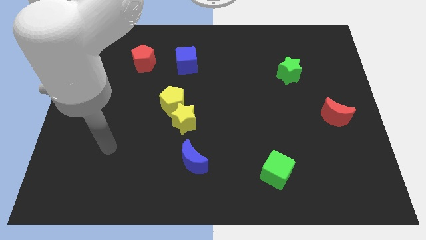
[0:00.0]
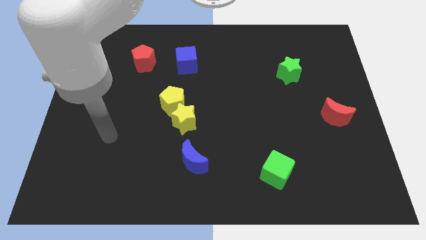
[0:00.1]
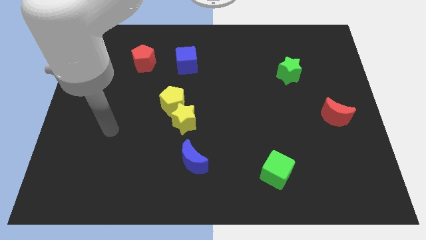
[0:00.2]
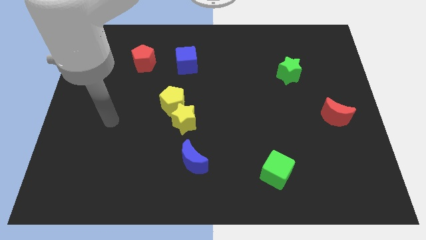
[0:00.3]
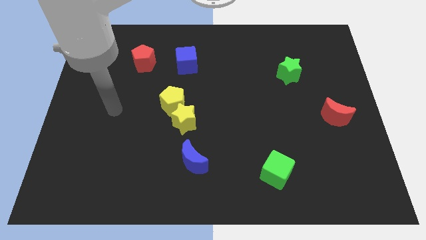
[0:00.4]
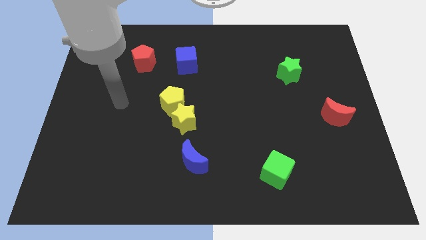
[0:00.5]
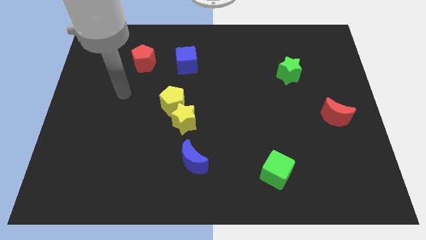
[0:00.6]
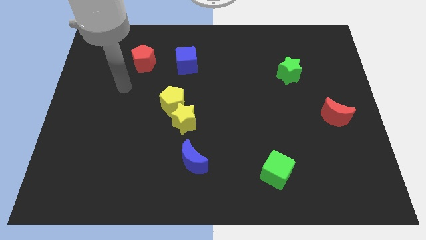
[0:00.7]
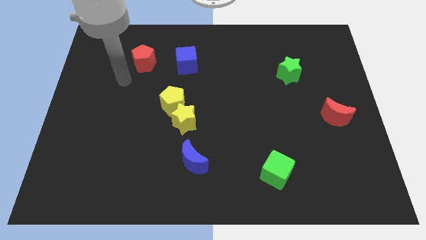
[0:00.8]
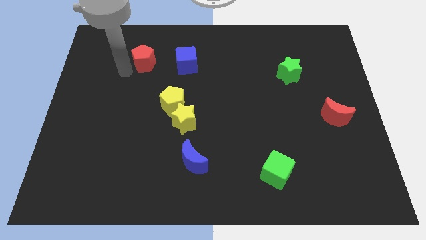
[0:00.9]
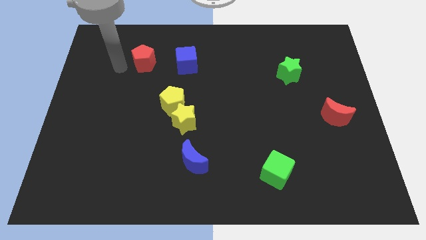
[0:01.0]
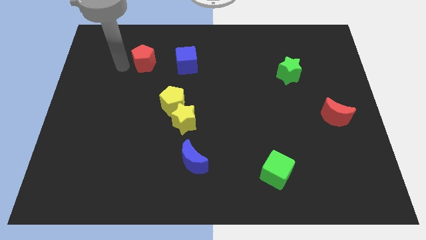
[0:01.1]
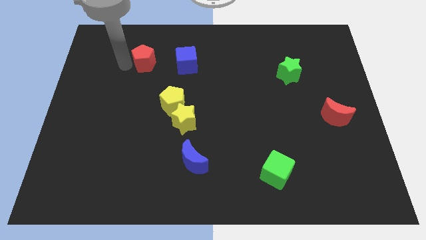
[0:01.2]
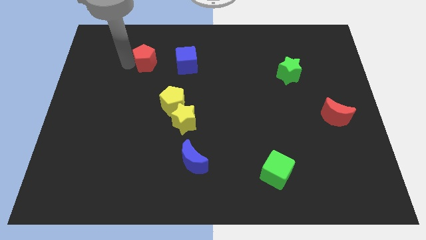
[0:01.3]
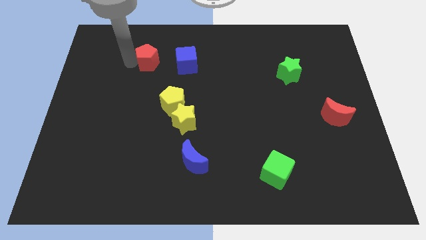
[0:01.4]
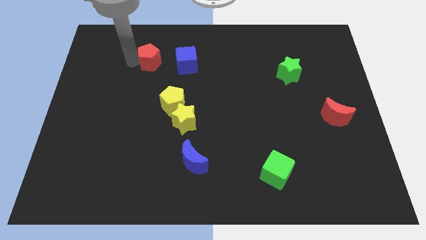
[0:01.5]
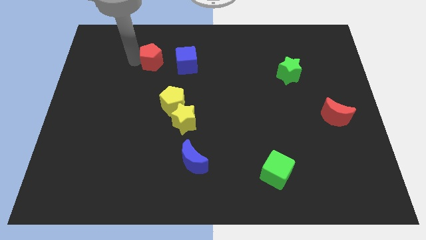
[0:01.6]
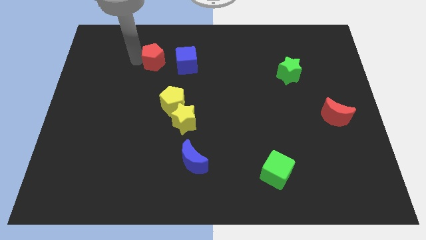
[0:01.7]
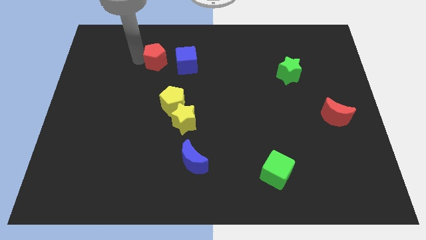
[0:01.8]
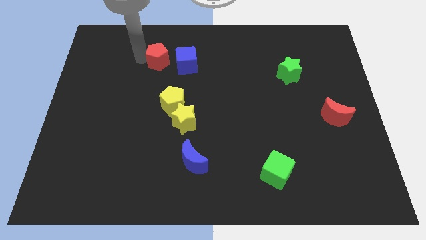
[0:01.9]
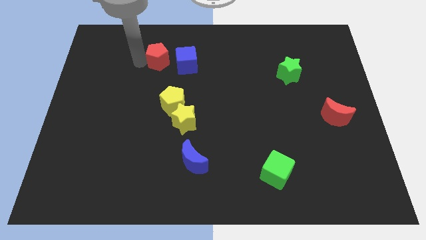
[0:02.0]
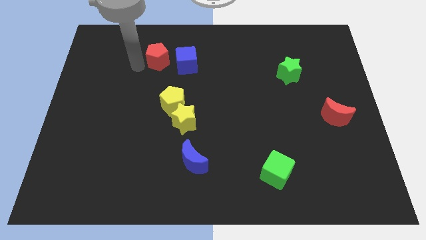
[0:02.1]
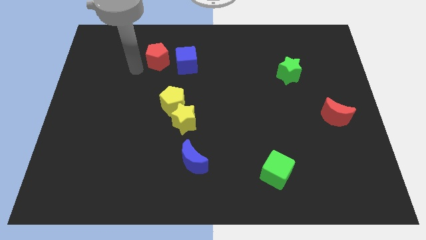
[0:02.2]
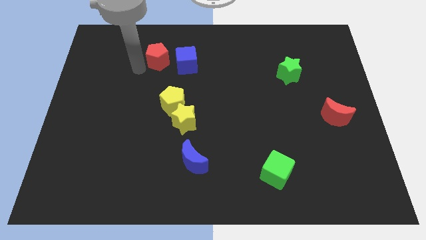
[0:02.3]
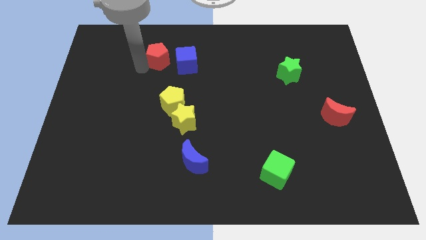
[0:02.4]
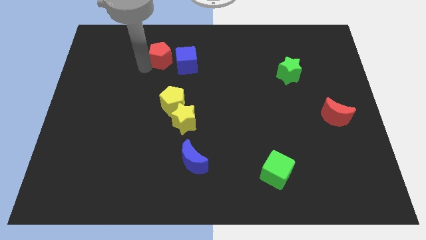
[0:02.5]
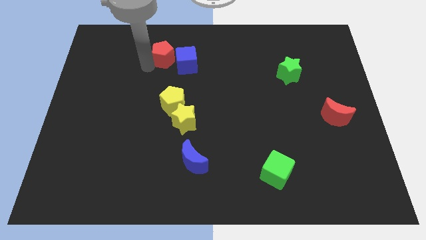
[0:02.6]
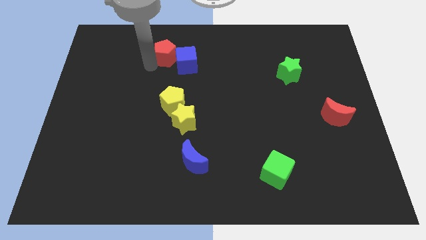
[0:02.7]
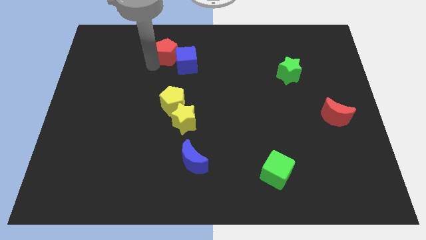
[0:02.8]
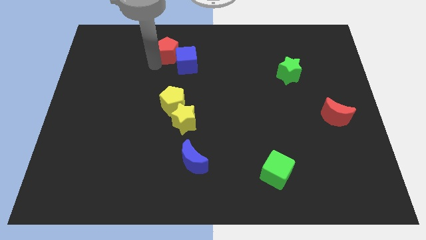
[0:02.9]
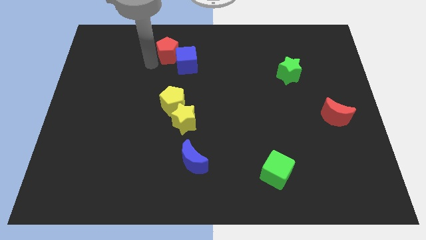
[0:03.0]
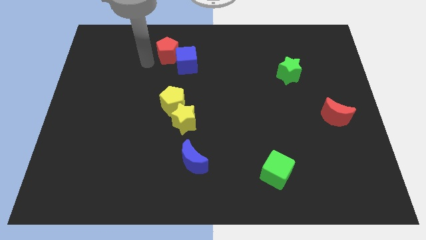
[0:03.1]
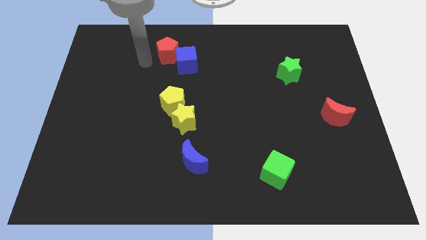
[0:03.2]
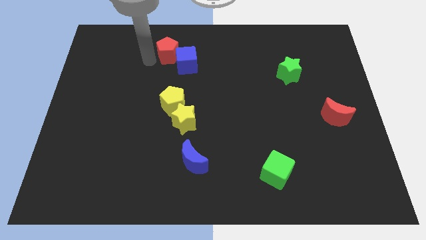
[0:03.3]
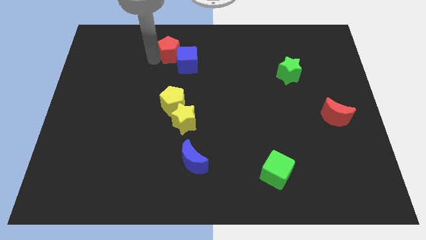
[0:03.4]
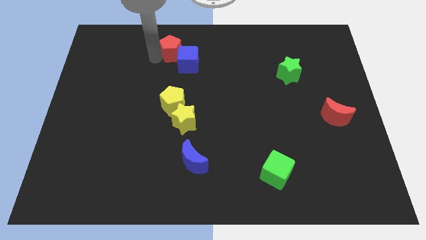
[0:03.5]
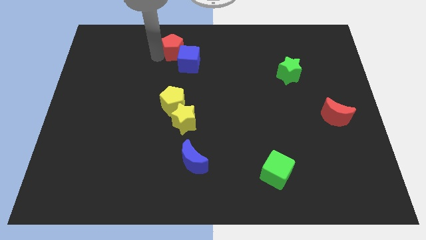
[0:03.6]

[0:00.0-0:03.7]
slightly slide the red pentagon to the right

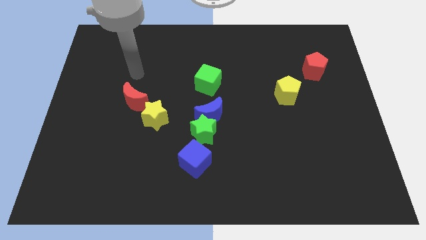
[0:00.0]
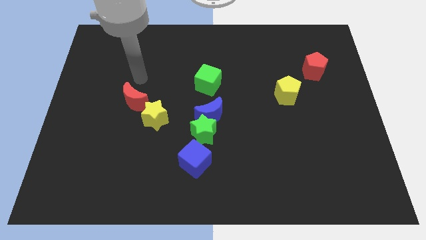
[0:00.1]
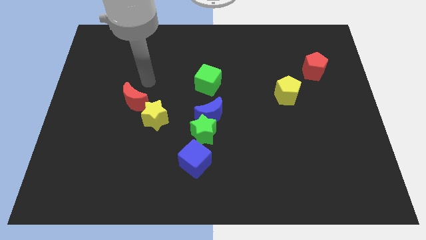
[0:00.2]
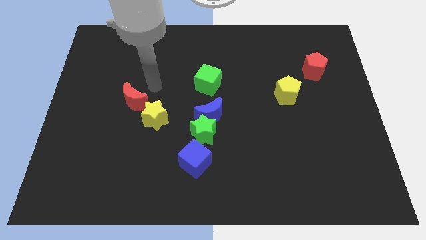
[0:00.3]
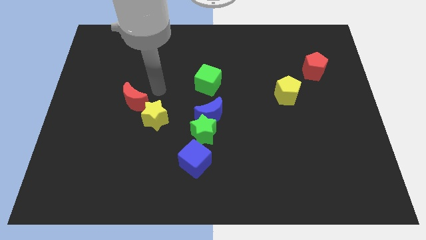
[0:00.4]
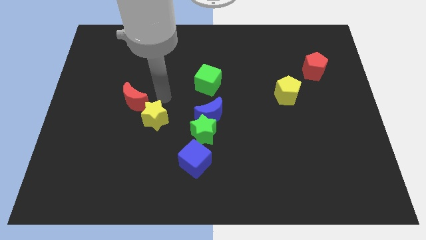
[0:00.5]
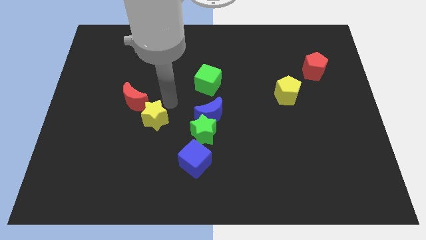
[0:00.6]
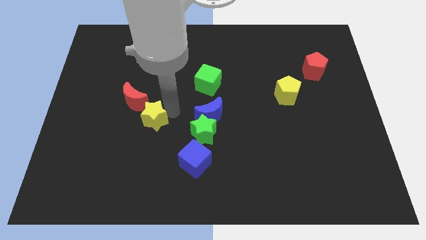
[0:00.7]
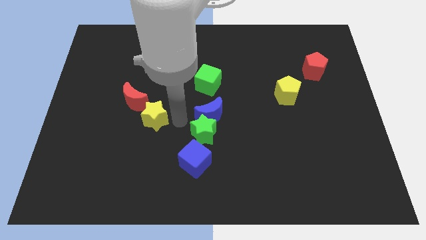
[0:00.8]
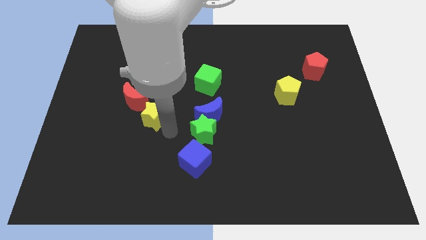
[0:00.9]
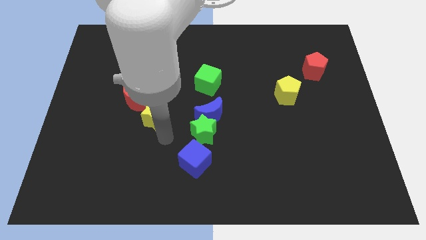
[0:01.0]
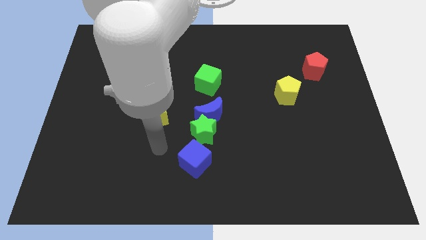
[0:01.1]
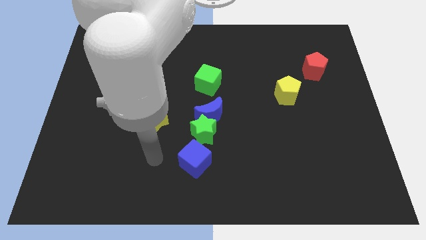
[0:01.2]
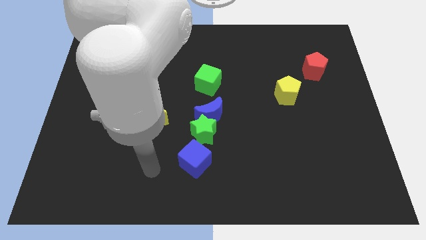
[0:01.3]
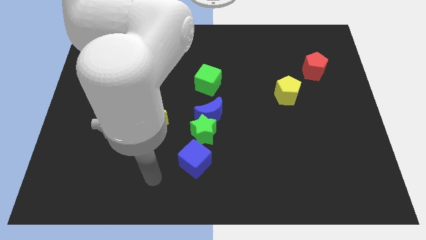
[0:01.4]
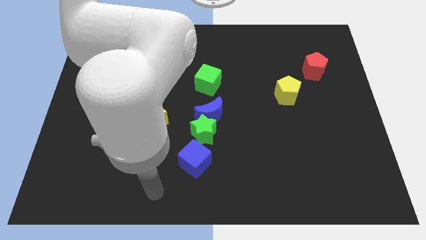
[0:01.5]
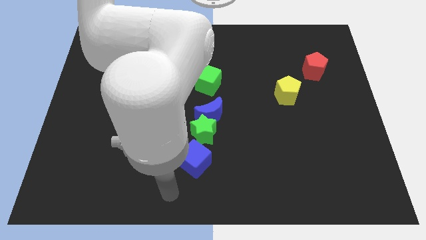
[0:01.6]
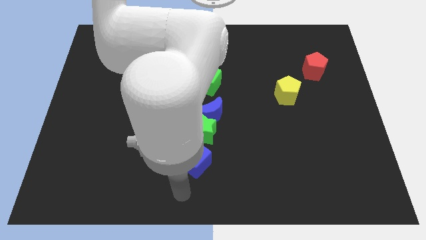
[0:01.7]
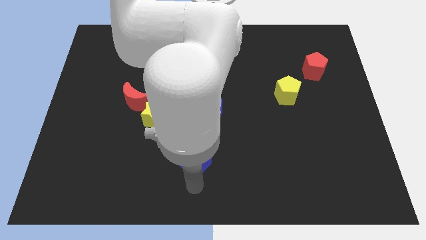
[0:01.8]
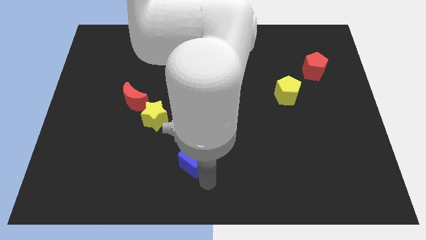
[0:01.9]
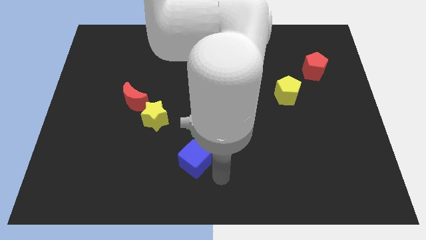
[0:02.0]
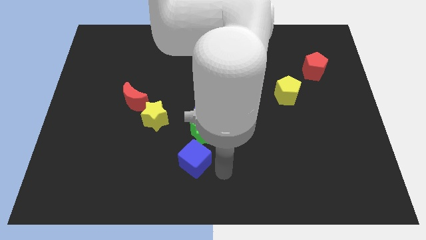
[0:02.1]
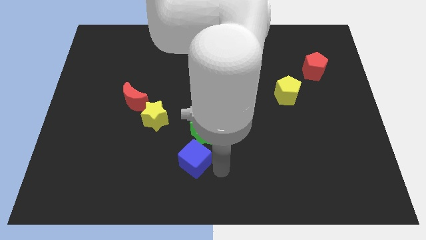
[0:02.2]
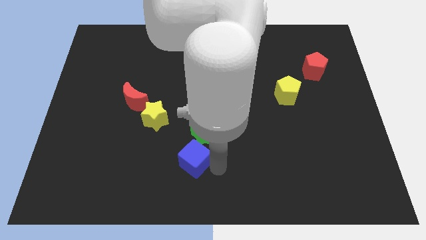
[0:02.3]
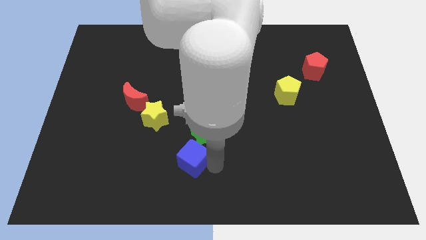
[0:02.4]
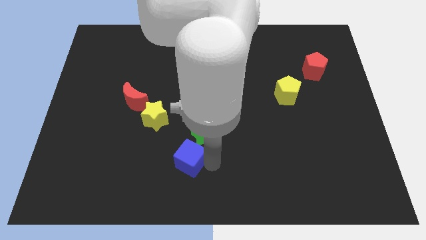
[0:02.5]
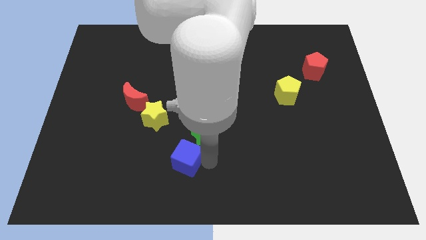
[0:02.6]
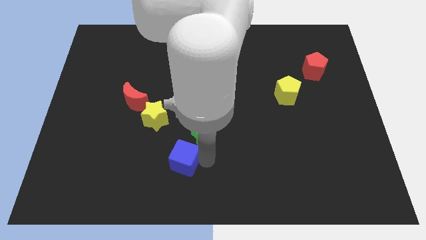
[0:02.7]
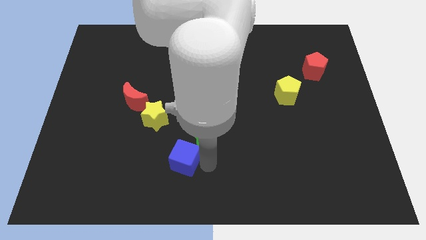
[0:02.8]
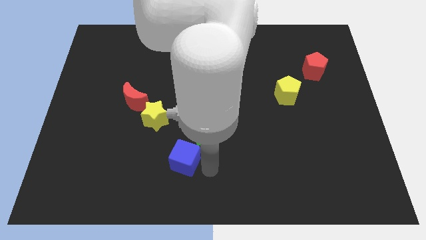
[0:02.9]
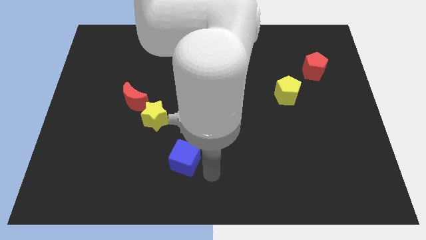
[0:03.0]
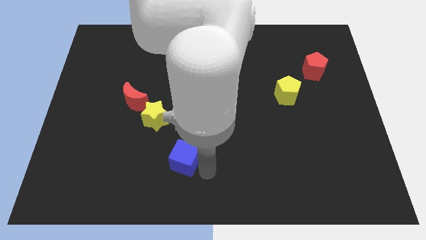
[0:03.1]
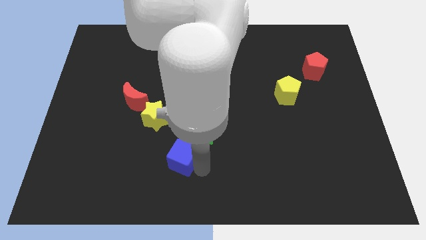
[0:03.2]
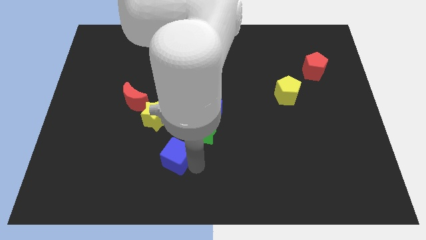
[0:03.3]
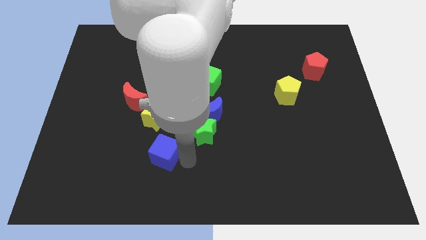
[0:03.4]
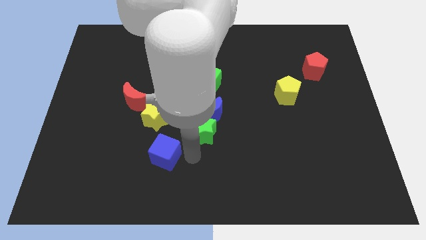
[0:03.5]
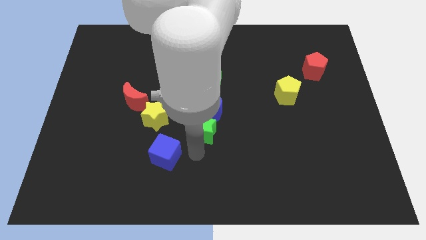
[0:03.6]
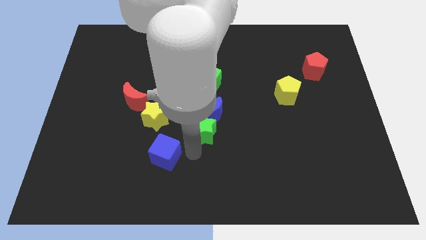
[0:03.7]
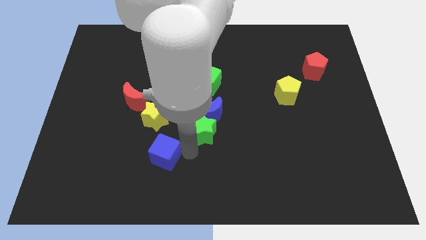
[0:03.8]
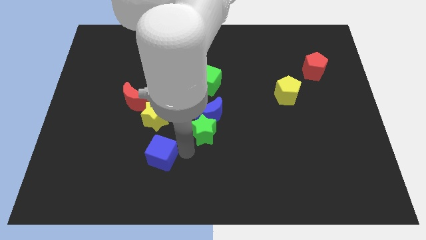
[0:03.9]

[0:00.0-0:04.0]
slide the blue cube slightly left
